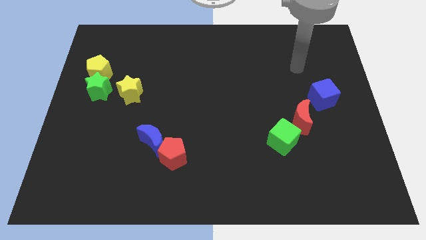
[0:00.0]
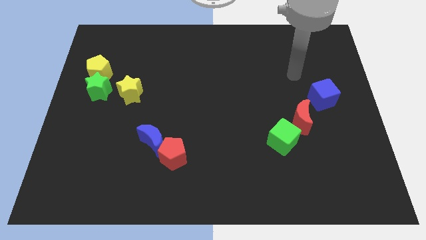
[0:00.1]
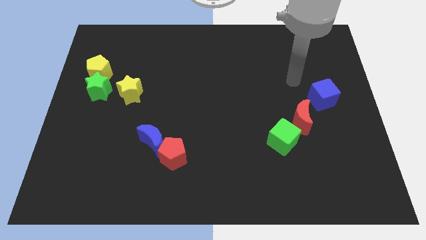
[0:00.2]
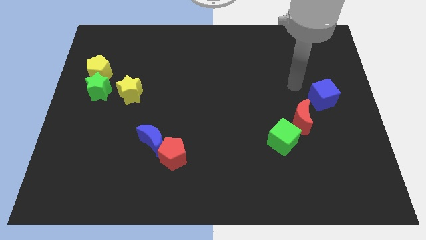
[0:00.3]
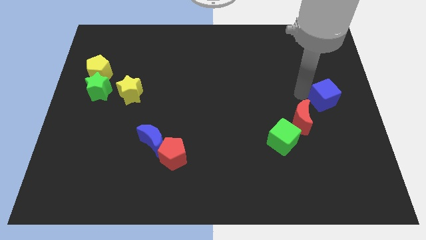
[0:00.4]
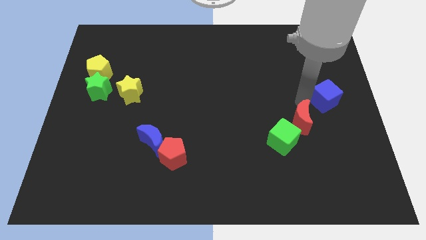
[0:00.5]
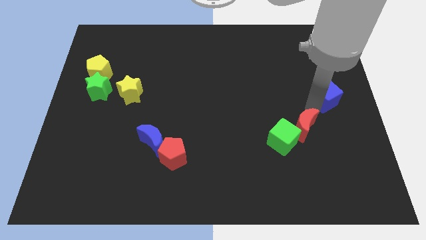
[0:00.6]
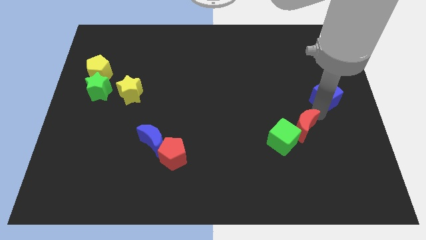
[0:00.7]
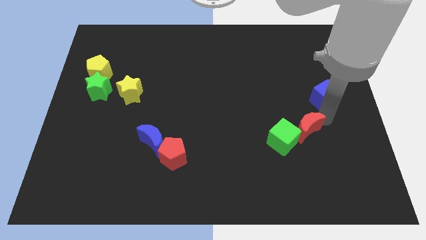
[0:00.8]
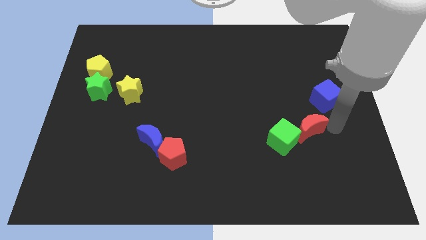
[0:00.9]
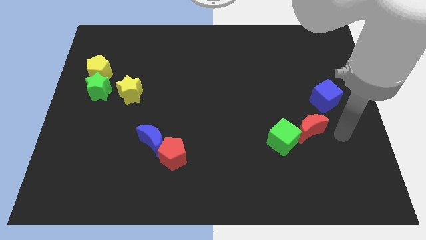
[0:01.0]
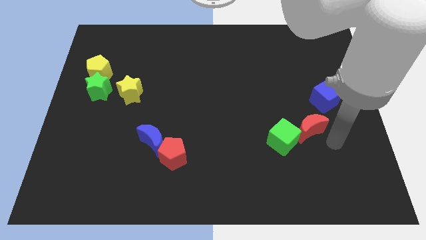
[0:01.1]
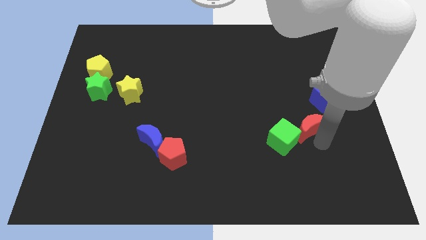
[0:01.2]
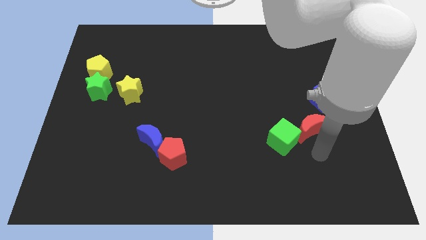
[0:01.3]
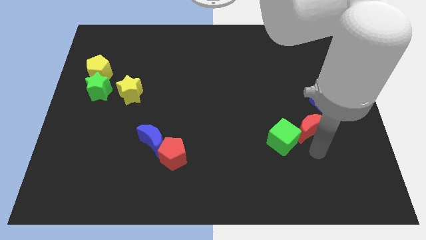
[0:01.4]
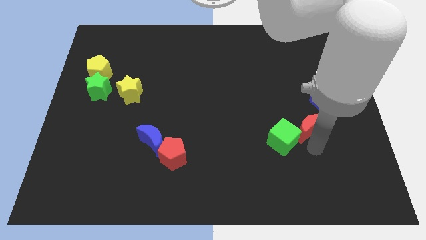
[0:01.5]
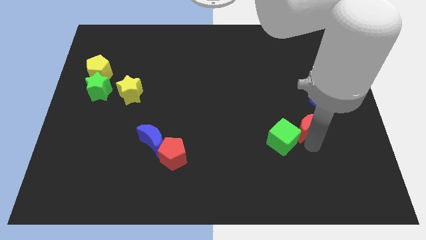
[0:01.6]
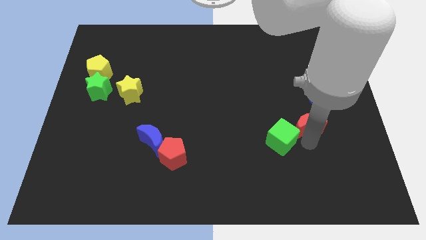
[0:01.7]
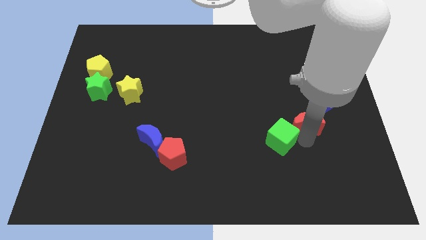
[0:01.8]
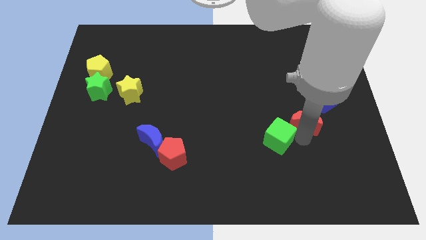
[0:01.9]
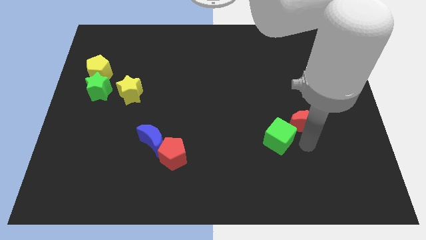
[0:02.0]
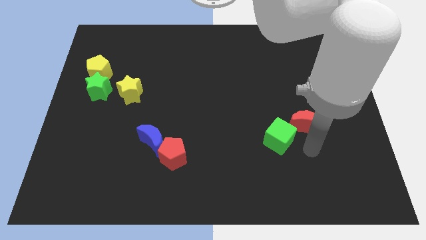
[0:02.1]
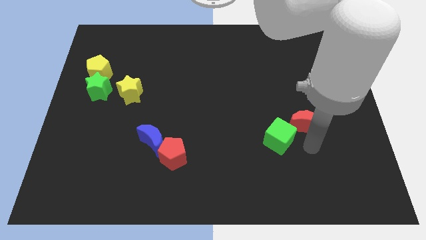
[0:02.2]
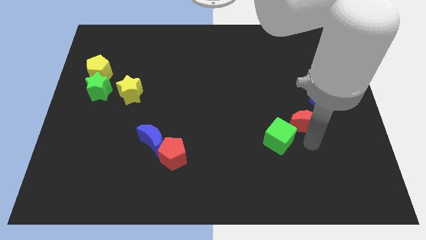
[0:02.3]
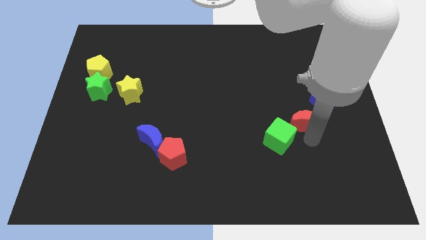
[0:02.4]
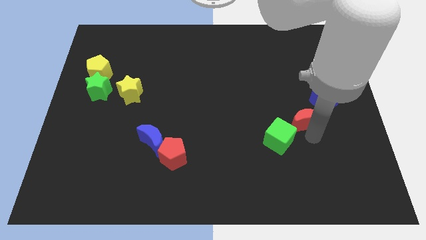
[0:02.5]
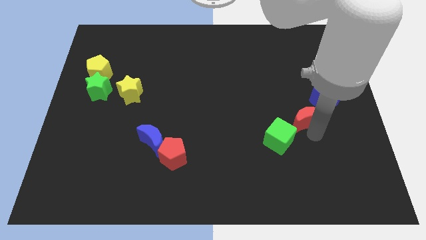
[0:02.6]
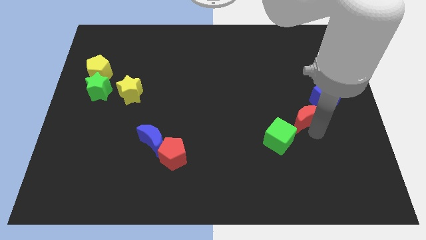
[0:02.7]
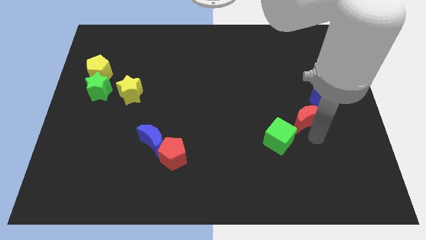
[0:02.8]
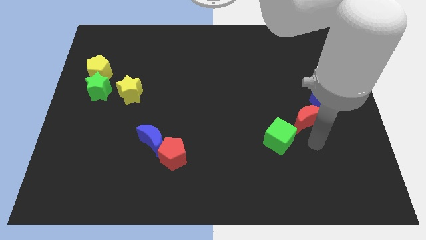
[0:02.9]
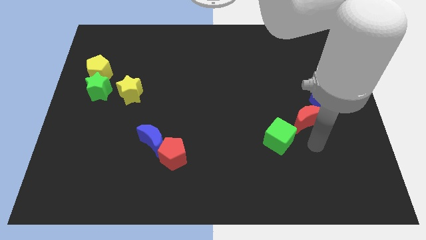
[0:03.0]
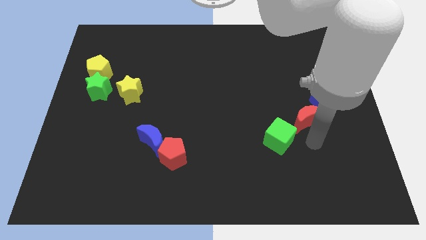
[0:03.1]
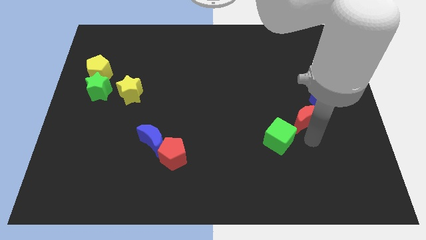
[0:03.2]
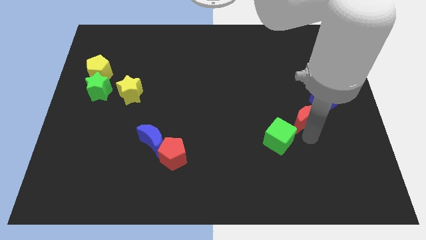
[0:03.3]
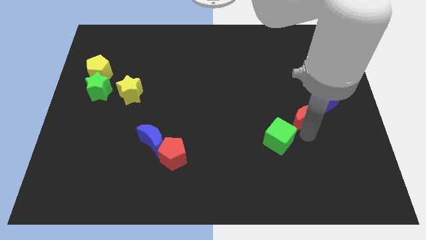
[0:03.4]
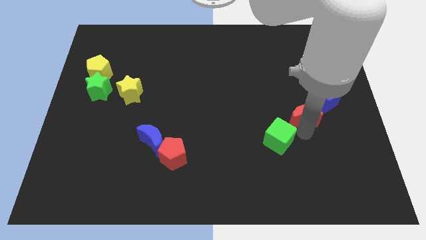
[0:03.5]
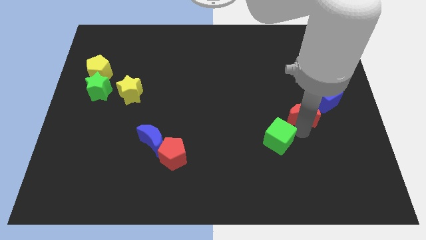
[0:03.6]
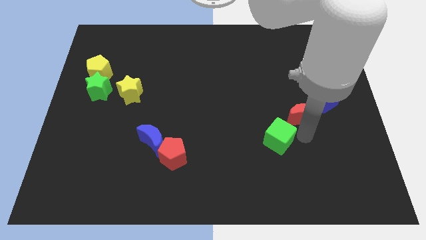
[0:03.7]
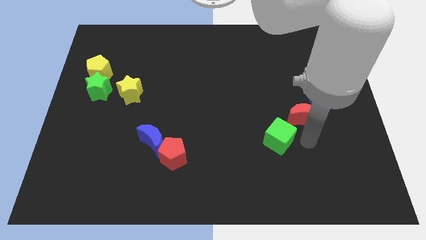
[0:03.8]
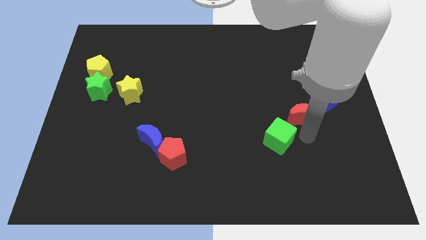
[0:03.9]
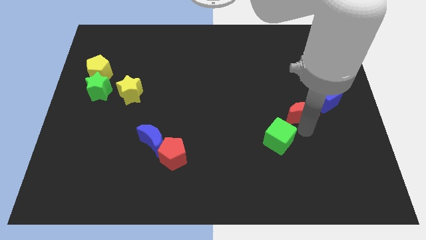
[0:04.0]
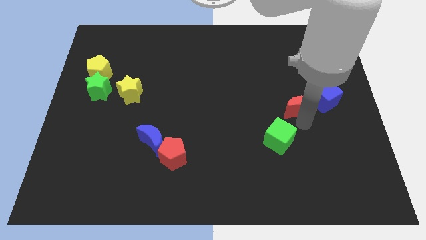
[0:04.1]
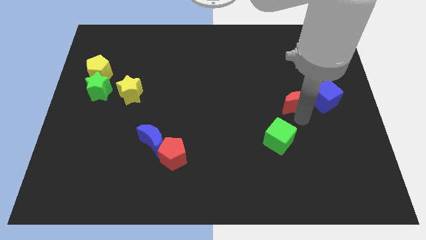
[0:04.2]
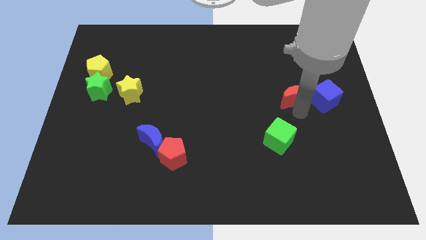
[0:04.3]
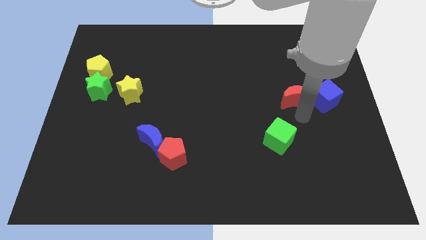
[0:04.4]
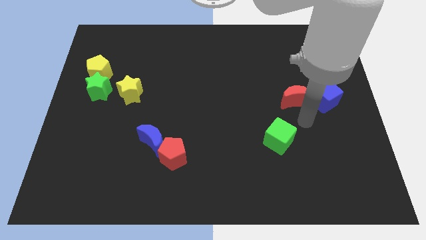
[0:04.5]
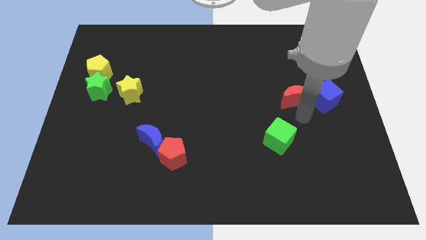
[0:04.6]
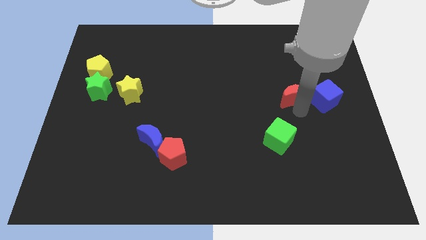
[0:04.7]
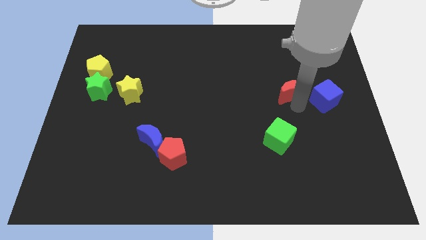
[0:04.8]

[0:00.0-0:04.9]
slightly move the red moon upwards

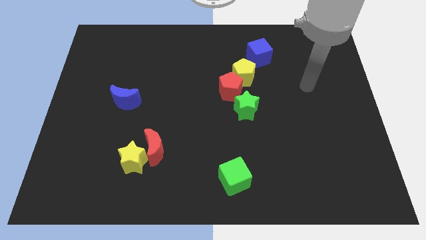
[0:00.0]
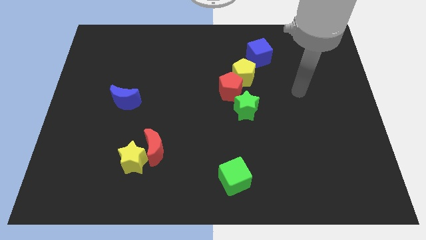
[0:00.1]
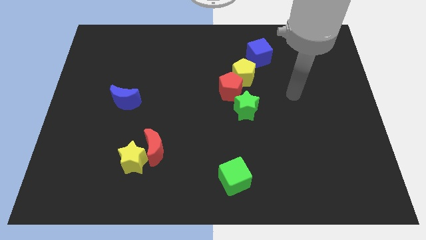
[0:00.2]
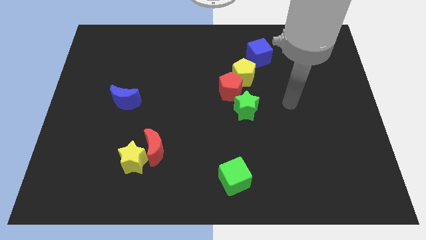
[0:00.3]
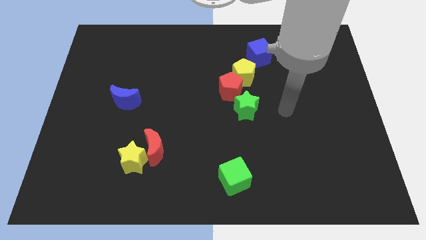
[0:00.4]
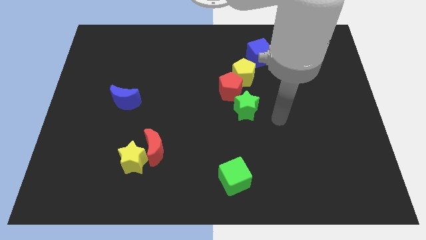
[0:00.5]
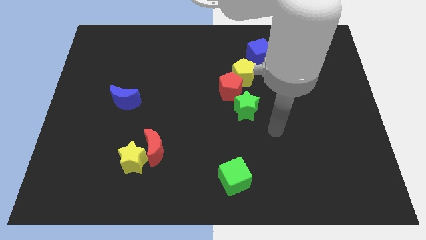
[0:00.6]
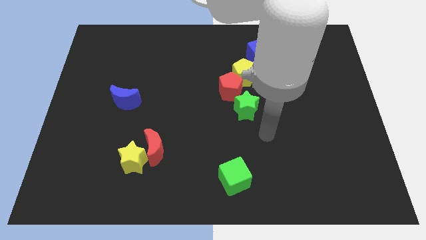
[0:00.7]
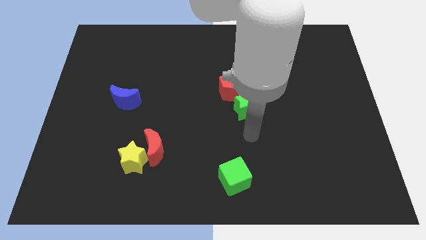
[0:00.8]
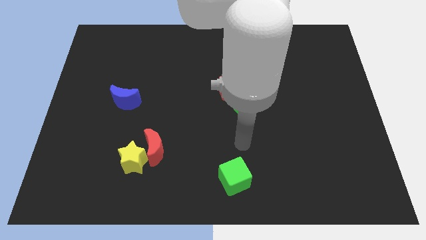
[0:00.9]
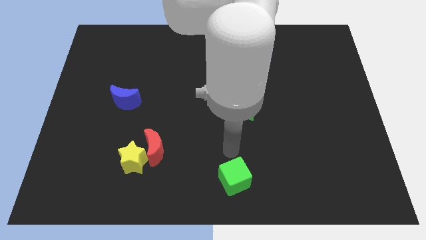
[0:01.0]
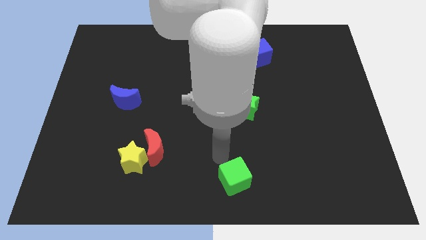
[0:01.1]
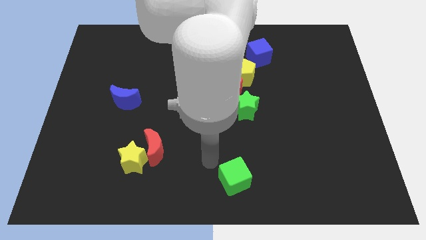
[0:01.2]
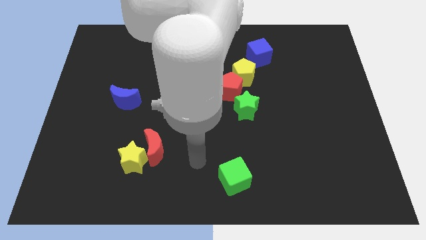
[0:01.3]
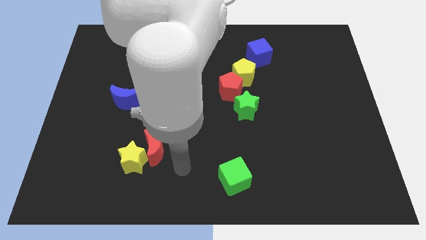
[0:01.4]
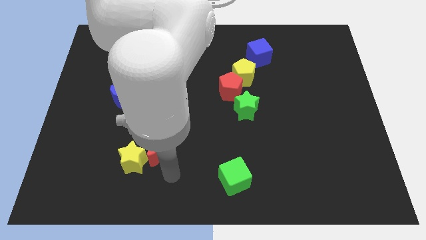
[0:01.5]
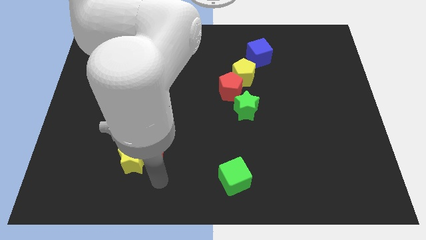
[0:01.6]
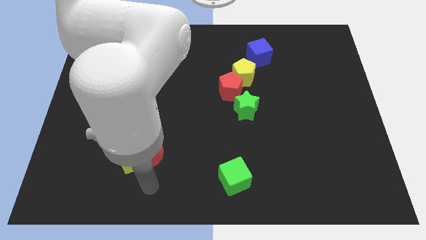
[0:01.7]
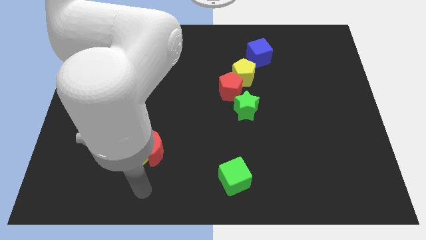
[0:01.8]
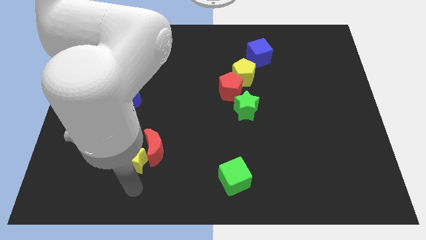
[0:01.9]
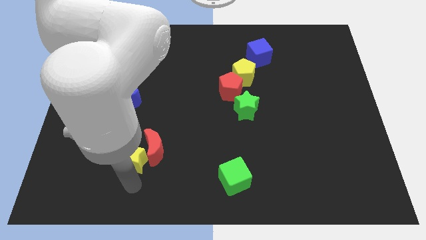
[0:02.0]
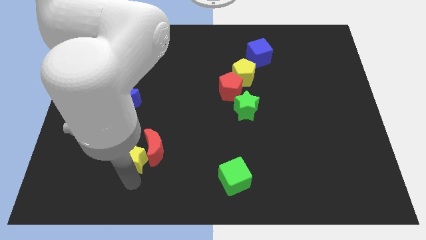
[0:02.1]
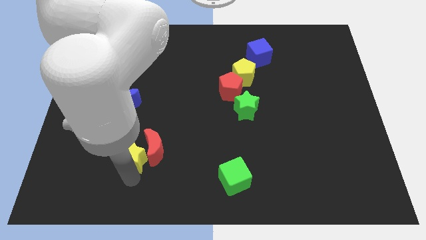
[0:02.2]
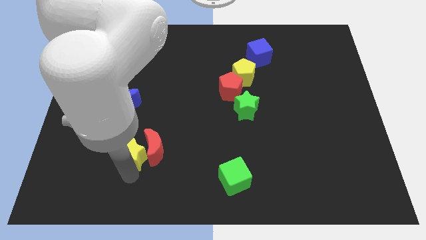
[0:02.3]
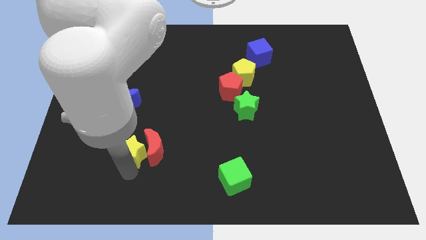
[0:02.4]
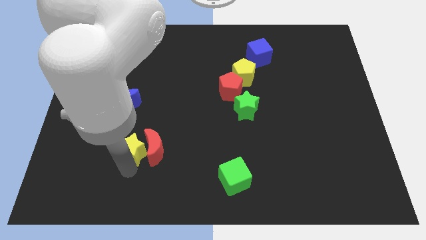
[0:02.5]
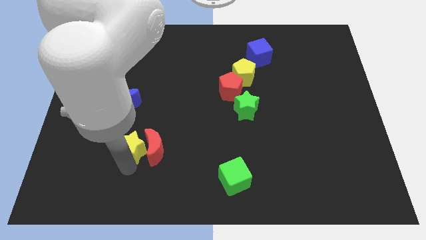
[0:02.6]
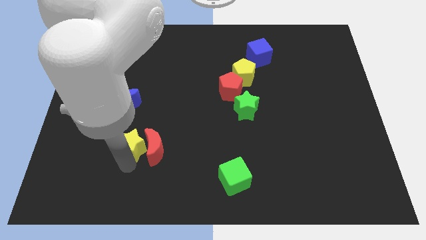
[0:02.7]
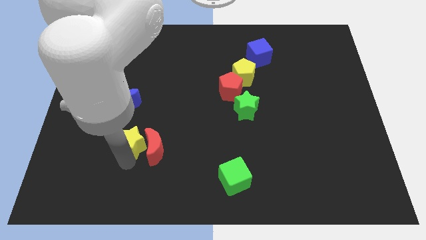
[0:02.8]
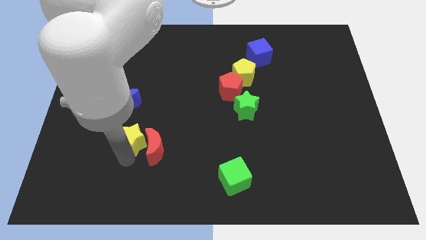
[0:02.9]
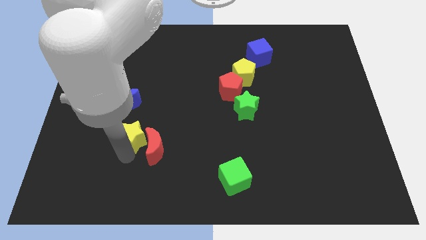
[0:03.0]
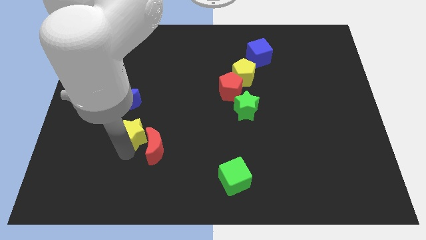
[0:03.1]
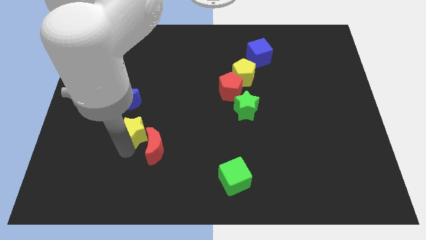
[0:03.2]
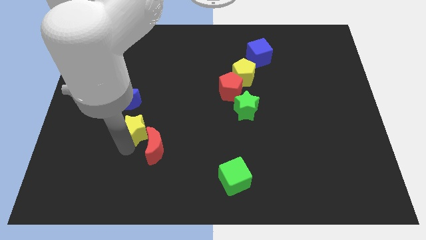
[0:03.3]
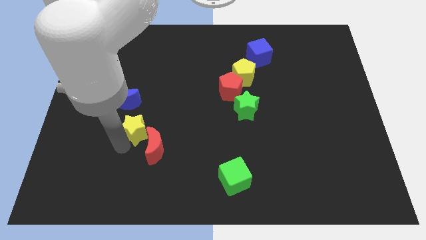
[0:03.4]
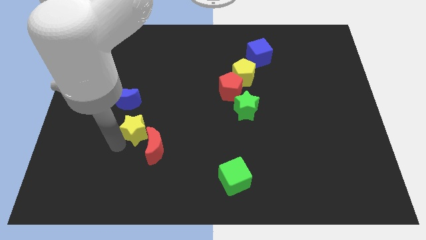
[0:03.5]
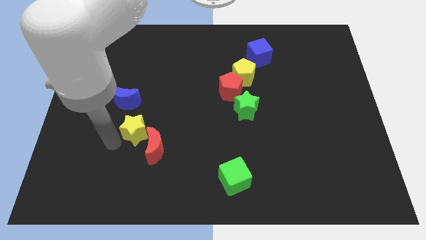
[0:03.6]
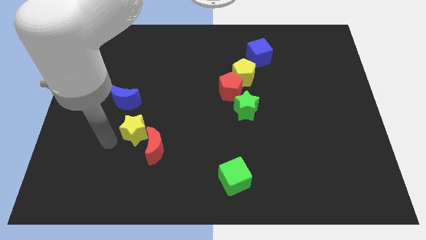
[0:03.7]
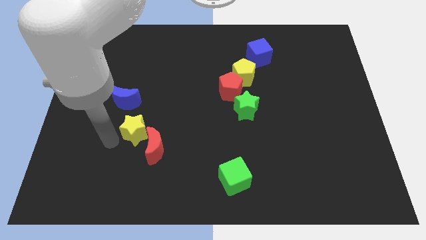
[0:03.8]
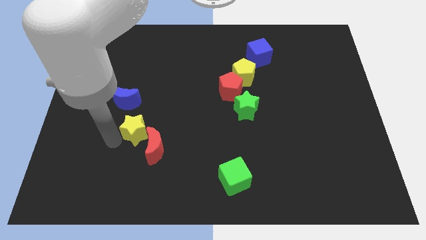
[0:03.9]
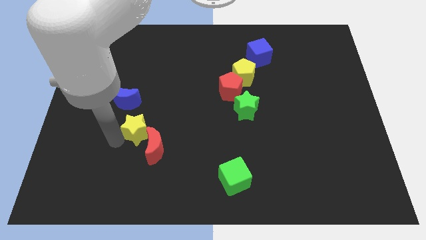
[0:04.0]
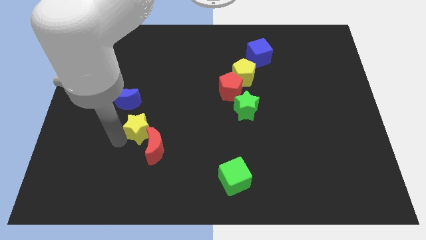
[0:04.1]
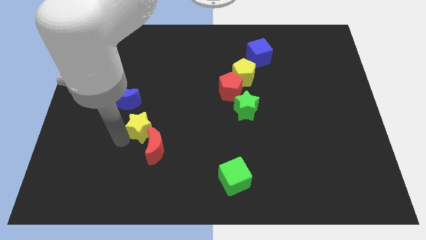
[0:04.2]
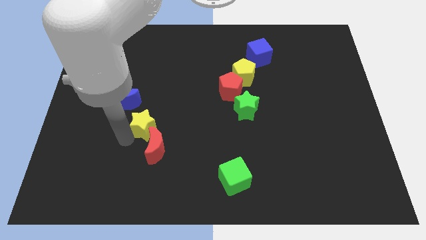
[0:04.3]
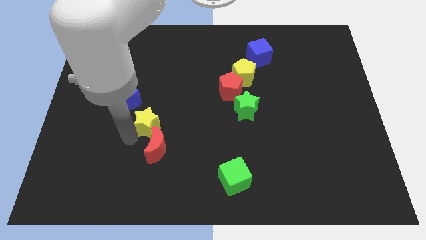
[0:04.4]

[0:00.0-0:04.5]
slightly move the yellow star diagonally upwards and to the right
